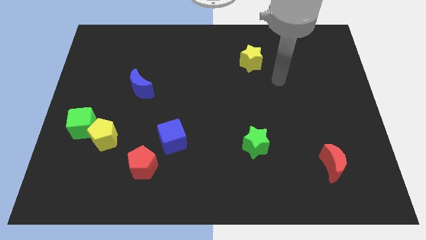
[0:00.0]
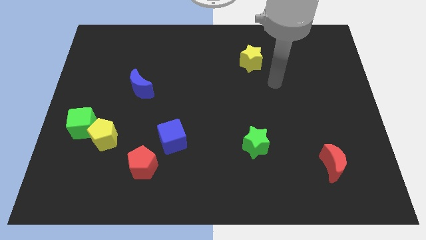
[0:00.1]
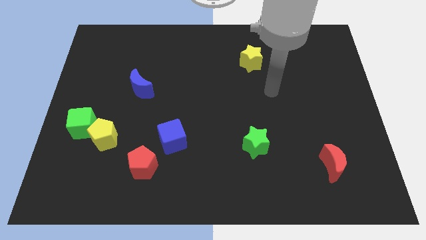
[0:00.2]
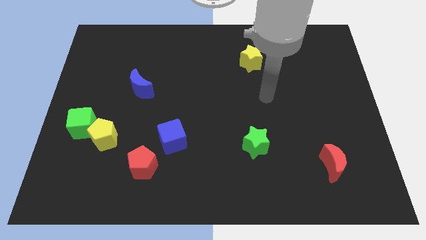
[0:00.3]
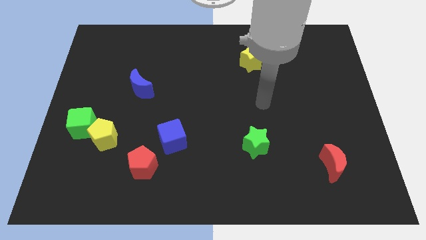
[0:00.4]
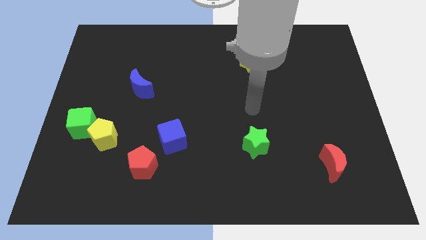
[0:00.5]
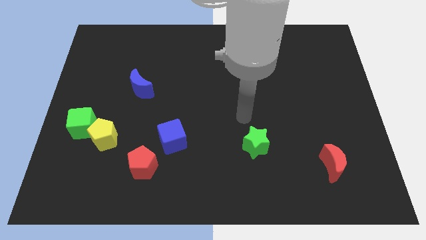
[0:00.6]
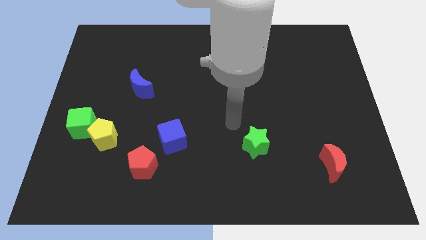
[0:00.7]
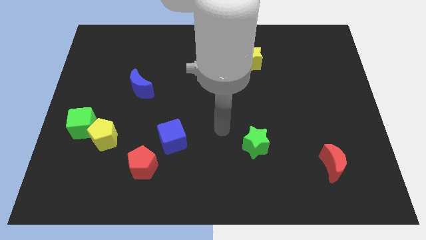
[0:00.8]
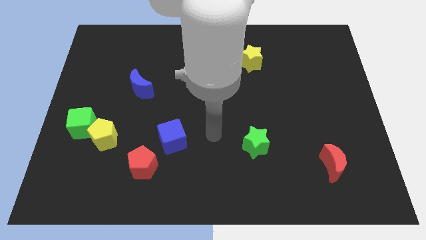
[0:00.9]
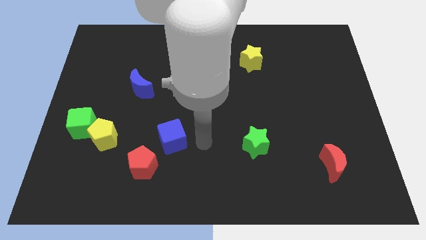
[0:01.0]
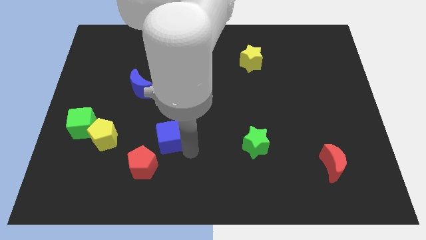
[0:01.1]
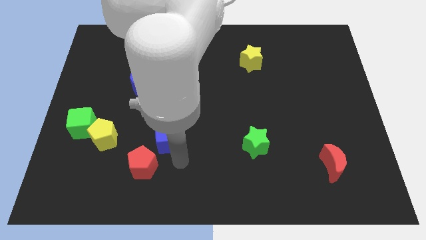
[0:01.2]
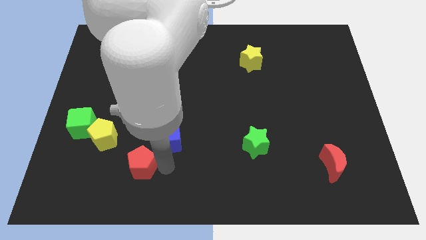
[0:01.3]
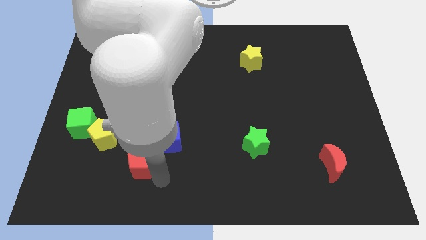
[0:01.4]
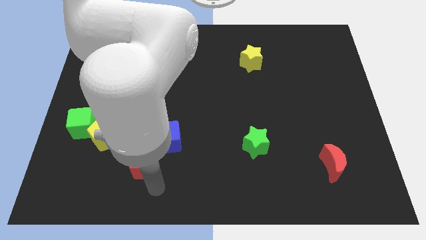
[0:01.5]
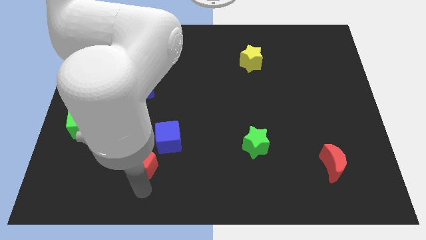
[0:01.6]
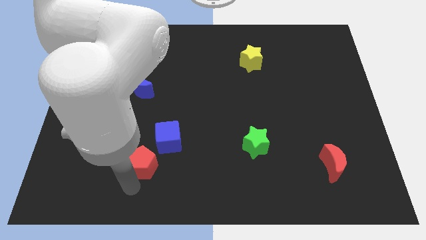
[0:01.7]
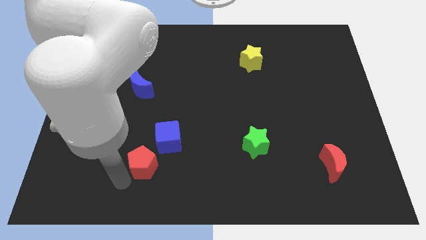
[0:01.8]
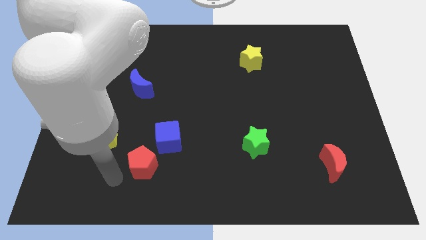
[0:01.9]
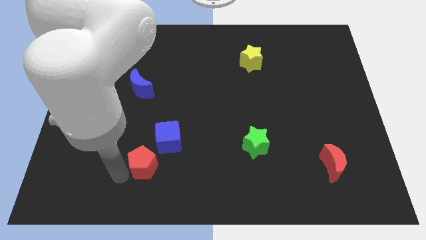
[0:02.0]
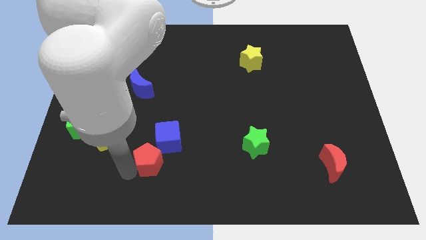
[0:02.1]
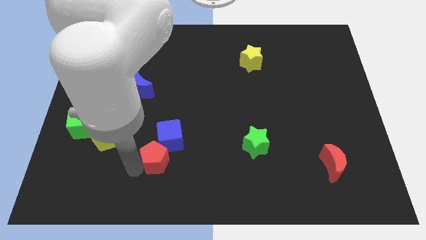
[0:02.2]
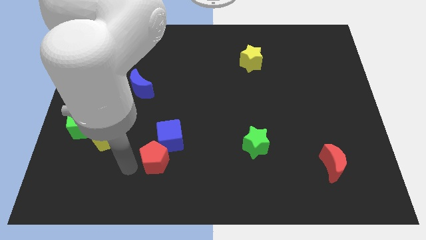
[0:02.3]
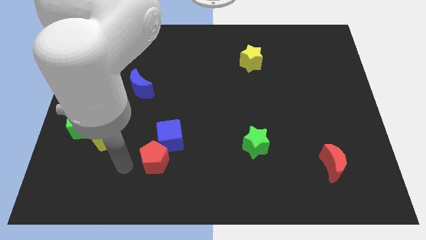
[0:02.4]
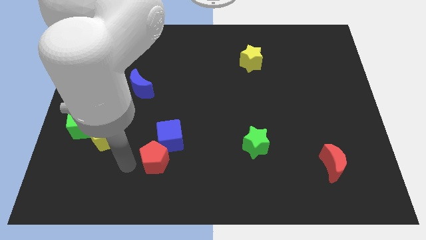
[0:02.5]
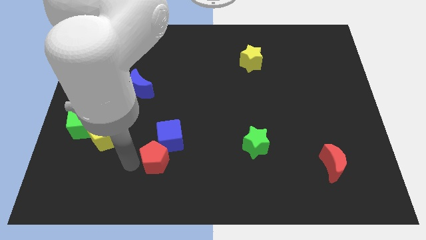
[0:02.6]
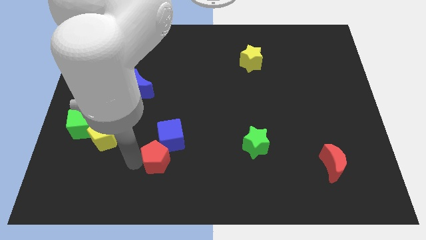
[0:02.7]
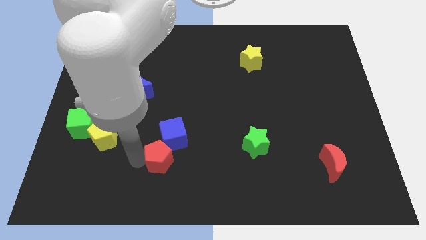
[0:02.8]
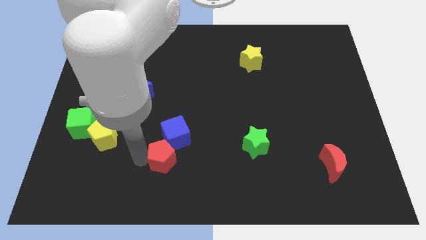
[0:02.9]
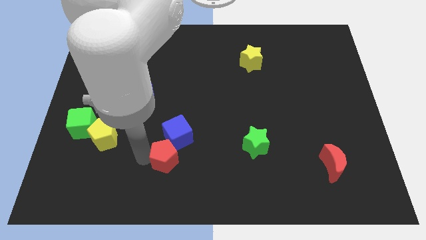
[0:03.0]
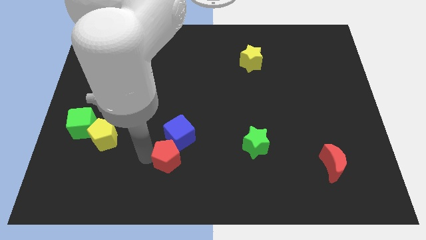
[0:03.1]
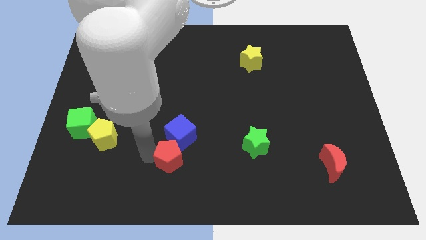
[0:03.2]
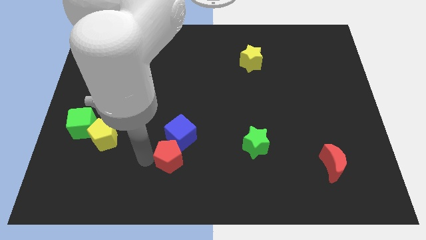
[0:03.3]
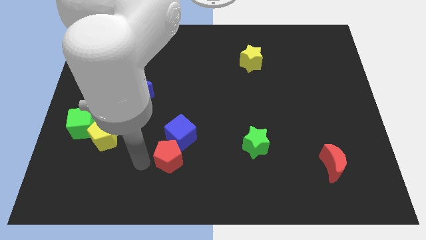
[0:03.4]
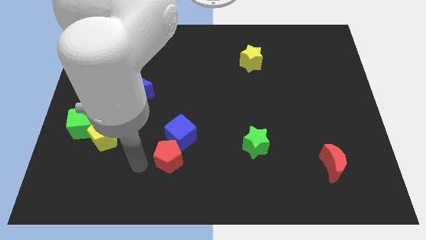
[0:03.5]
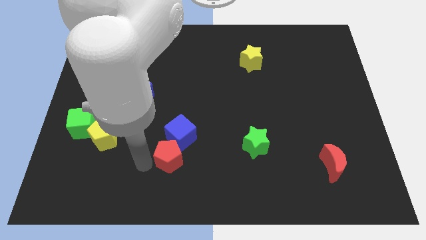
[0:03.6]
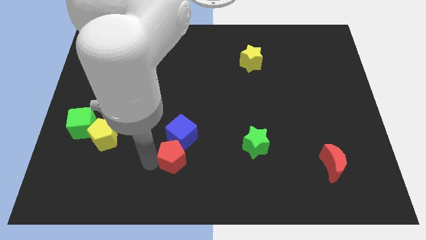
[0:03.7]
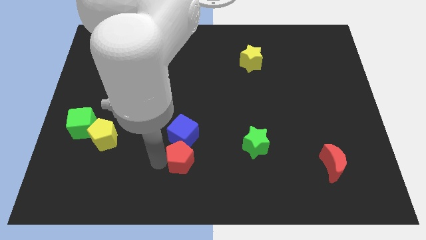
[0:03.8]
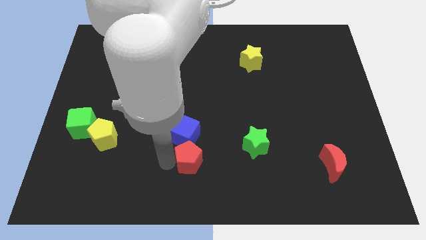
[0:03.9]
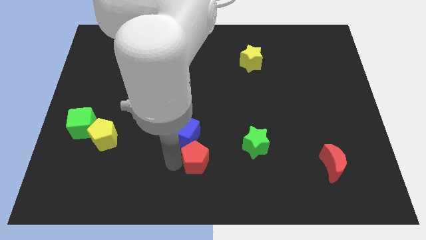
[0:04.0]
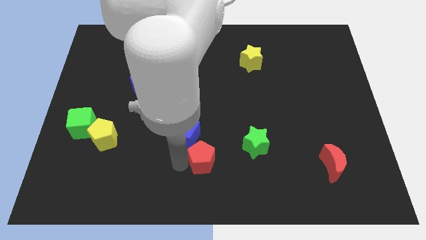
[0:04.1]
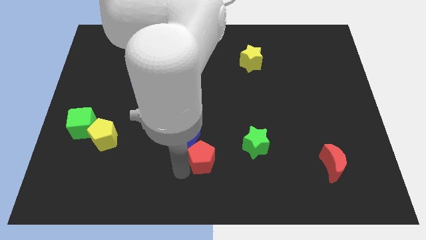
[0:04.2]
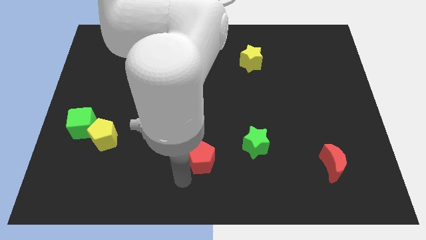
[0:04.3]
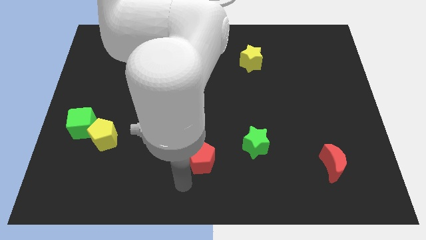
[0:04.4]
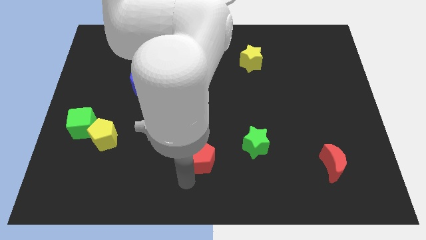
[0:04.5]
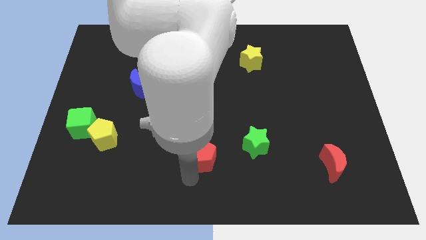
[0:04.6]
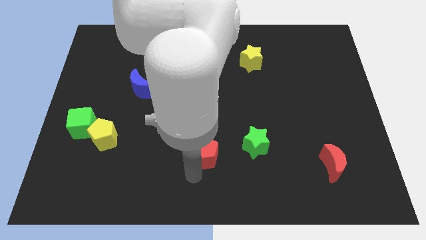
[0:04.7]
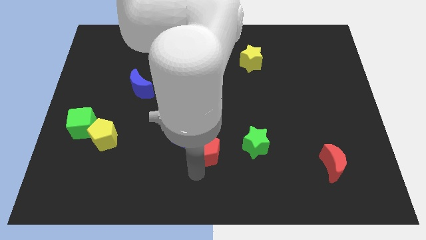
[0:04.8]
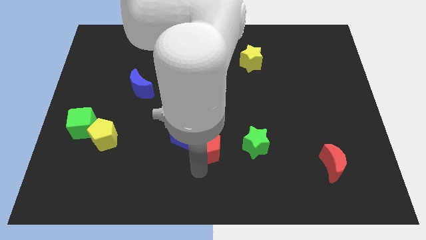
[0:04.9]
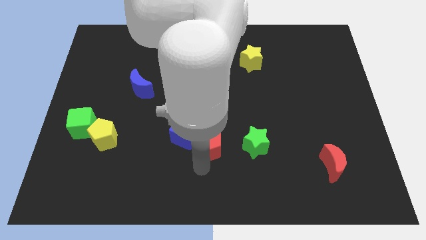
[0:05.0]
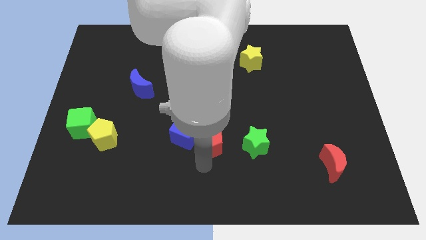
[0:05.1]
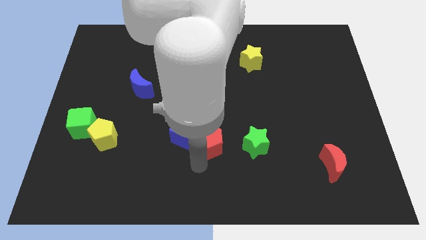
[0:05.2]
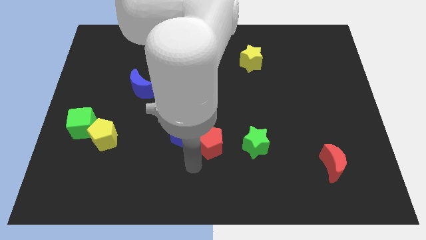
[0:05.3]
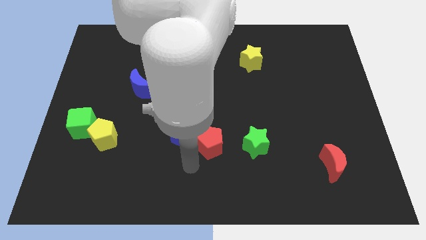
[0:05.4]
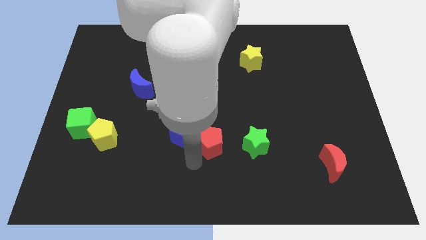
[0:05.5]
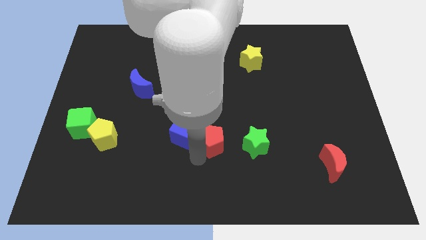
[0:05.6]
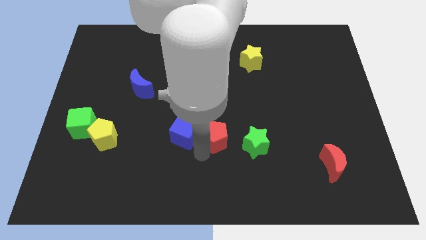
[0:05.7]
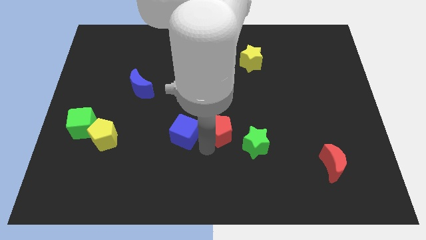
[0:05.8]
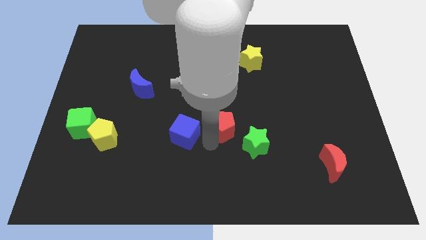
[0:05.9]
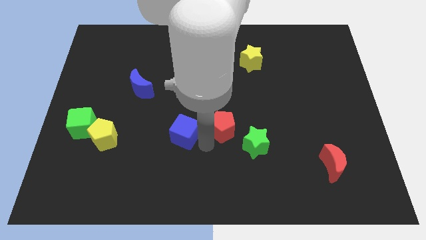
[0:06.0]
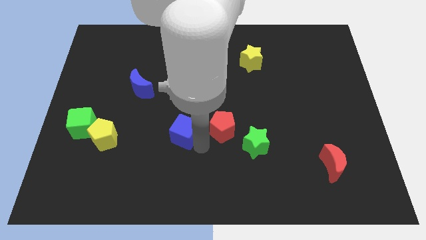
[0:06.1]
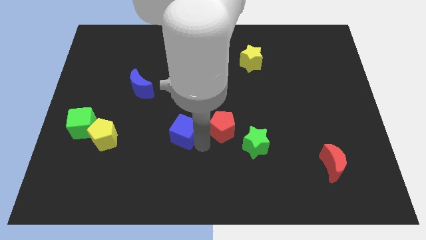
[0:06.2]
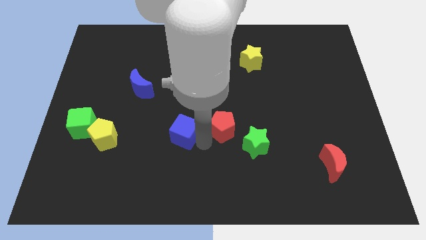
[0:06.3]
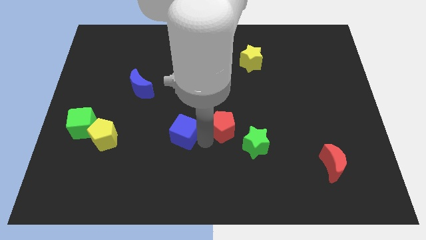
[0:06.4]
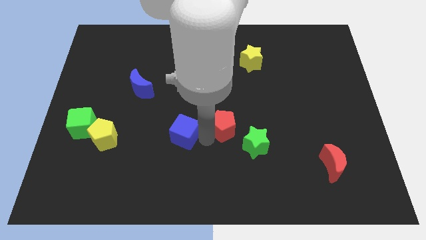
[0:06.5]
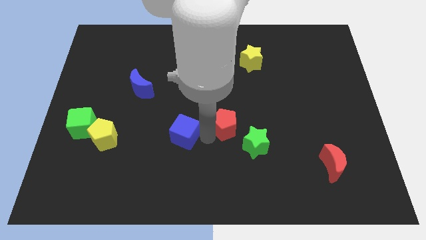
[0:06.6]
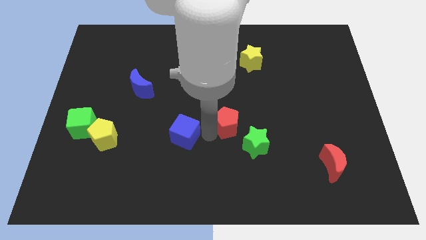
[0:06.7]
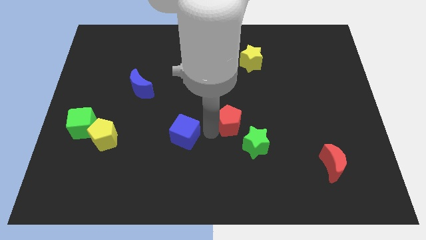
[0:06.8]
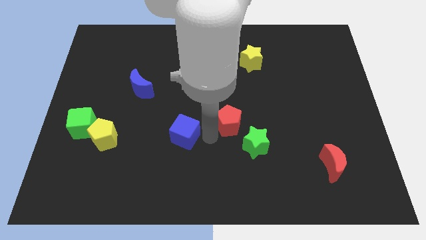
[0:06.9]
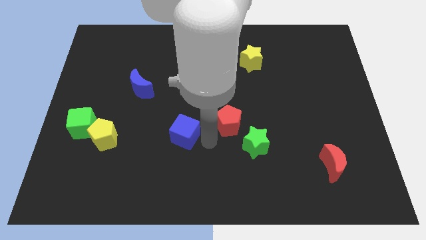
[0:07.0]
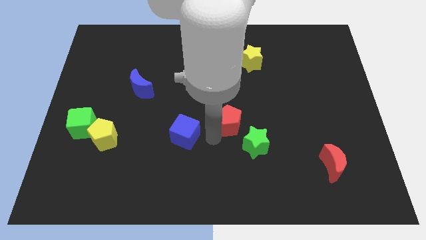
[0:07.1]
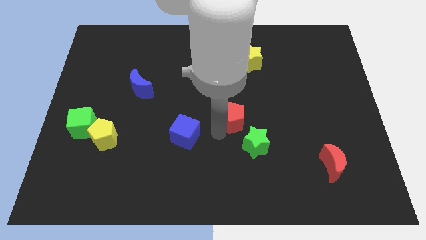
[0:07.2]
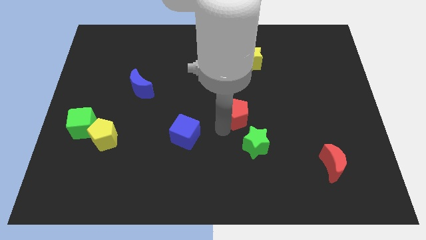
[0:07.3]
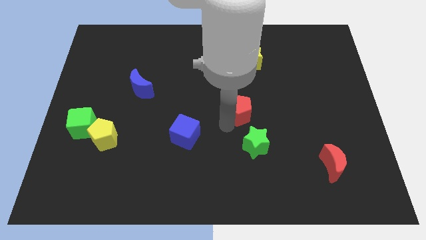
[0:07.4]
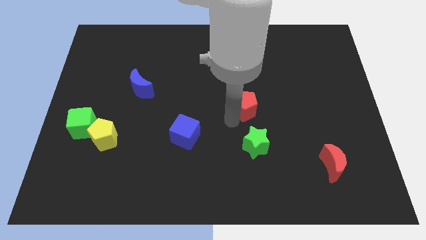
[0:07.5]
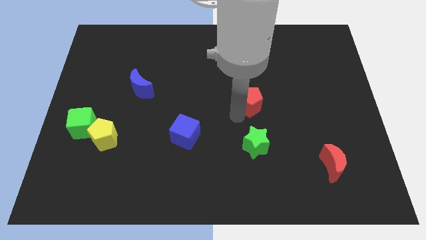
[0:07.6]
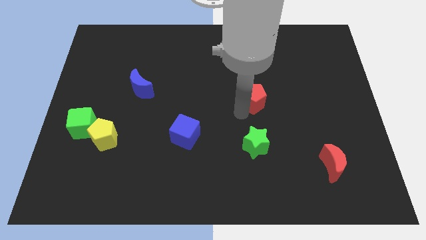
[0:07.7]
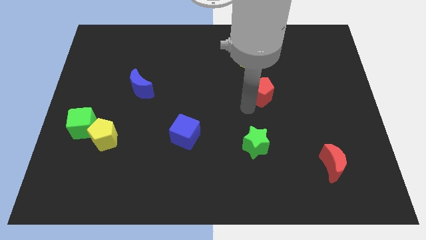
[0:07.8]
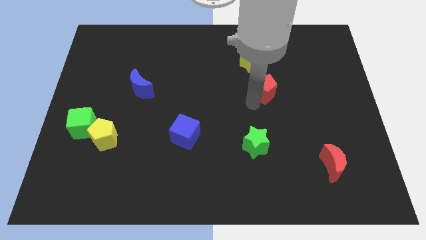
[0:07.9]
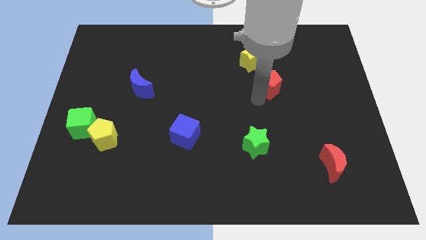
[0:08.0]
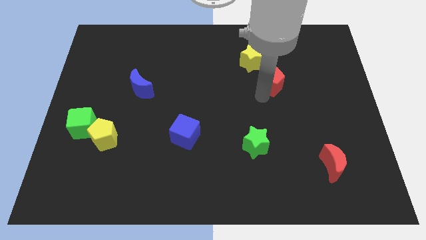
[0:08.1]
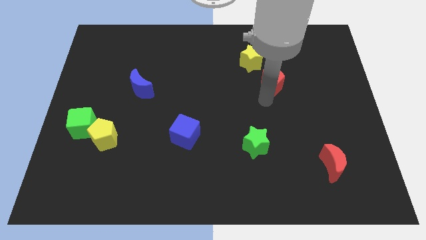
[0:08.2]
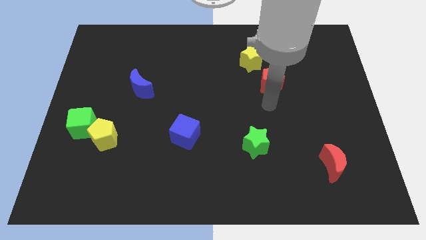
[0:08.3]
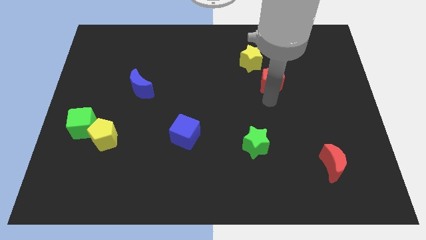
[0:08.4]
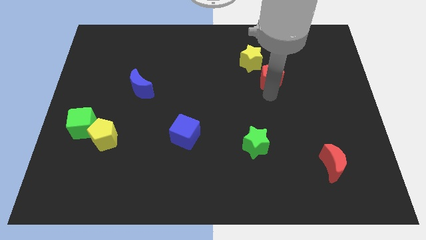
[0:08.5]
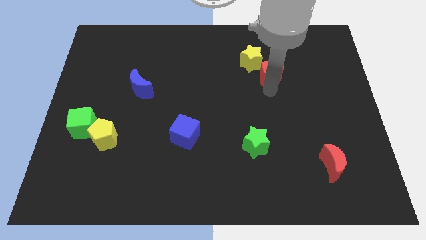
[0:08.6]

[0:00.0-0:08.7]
push the red pentagon right of the yellow star
